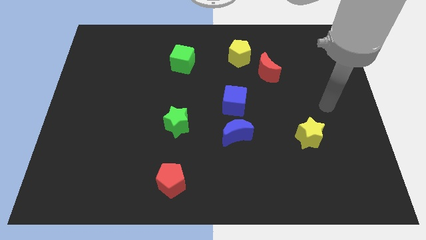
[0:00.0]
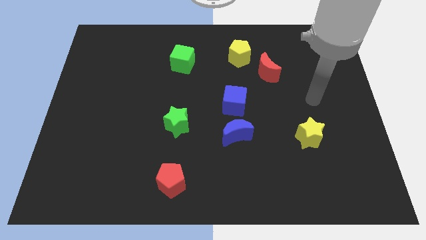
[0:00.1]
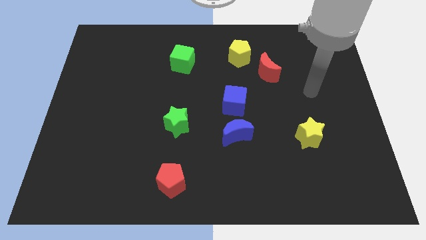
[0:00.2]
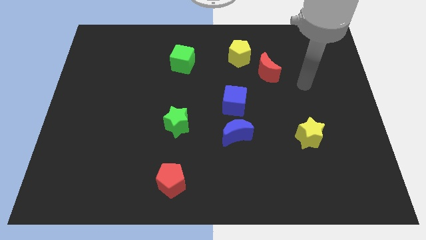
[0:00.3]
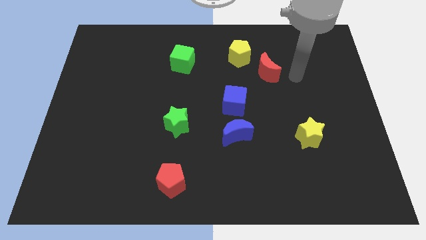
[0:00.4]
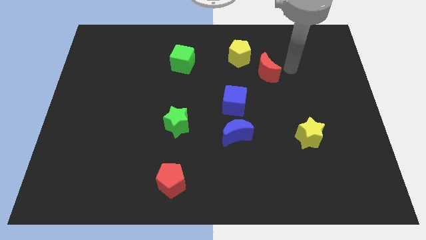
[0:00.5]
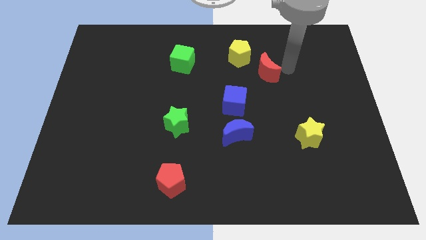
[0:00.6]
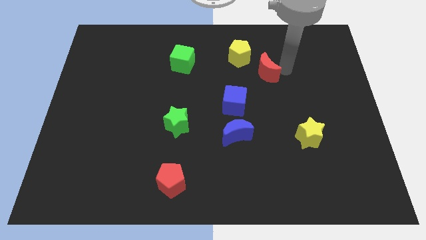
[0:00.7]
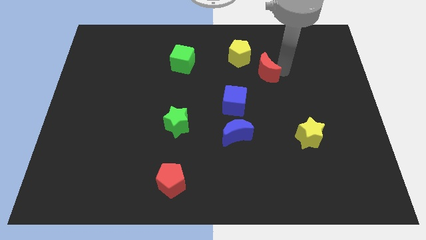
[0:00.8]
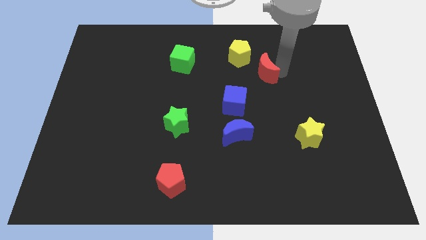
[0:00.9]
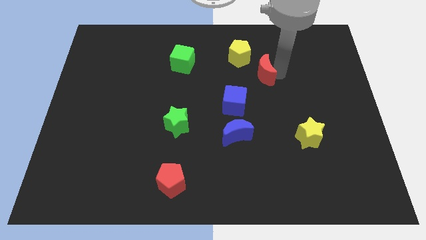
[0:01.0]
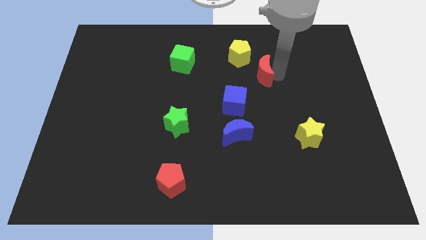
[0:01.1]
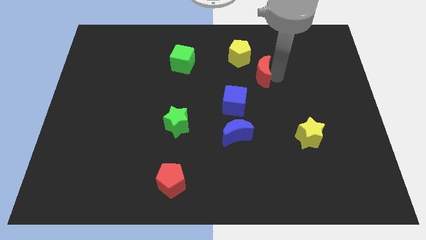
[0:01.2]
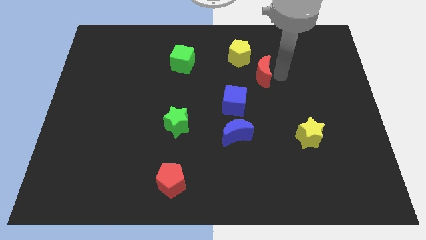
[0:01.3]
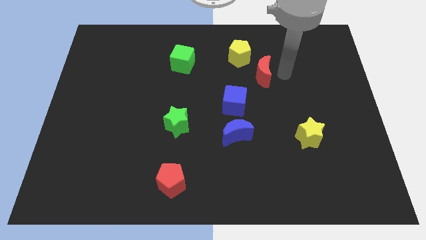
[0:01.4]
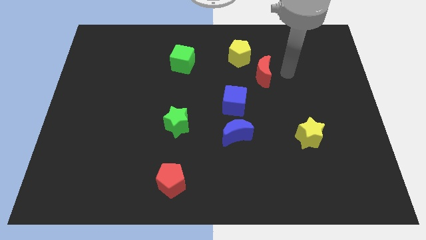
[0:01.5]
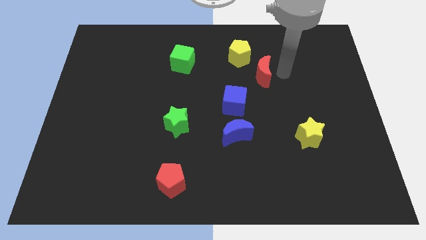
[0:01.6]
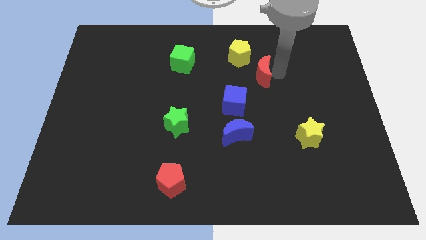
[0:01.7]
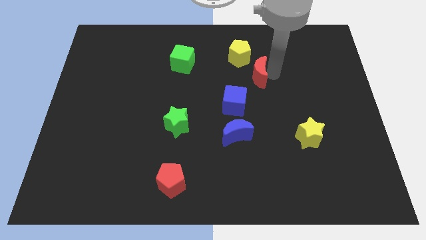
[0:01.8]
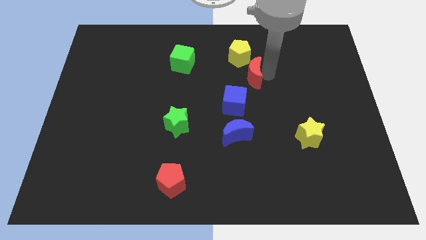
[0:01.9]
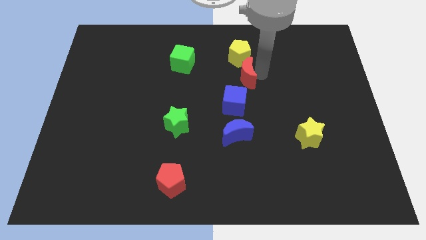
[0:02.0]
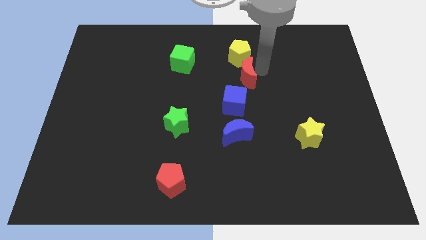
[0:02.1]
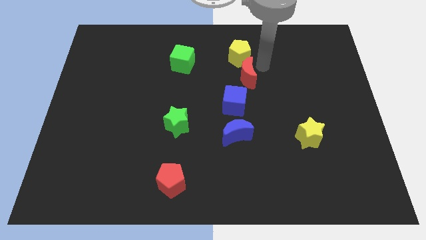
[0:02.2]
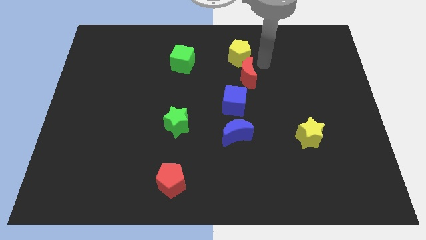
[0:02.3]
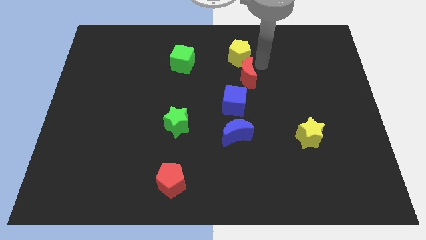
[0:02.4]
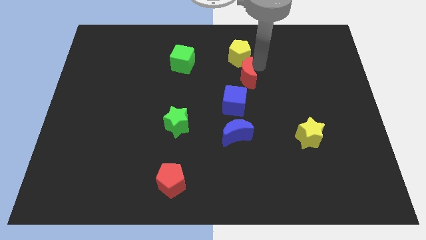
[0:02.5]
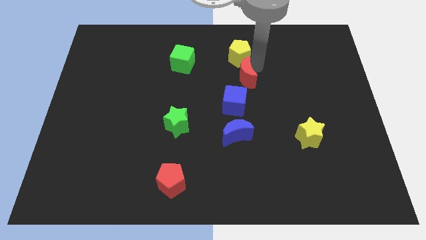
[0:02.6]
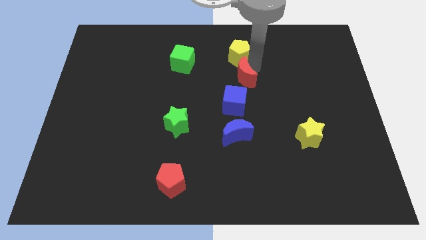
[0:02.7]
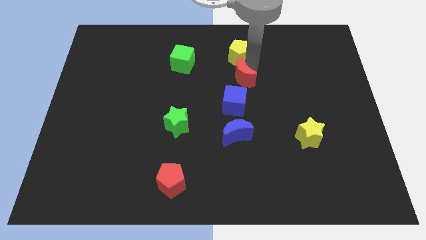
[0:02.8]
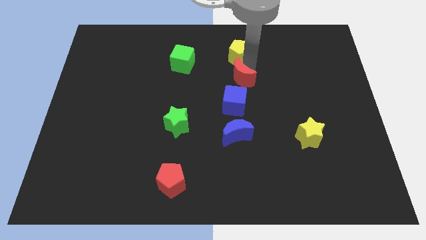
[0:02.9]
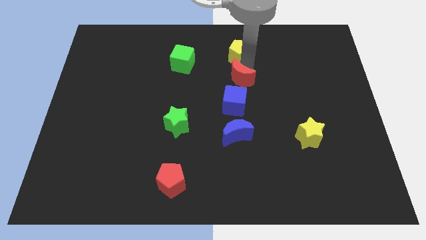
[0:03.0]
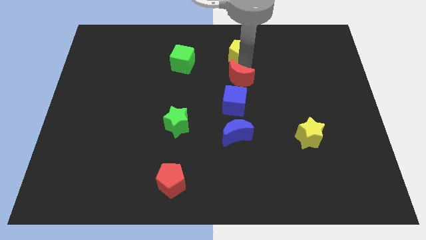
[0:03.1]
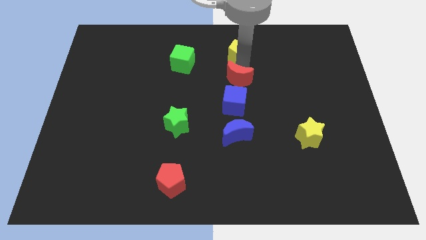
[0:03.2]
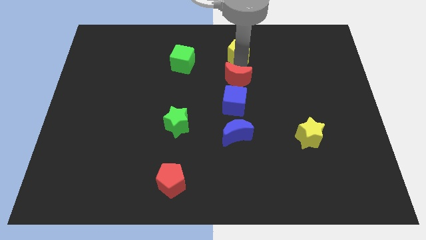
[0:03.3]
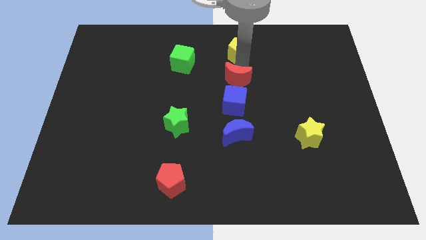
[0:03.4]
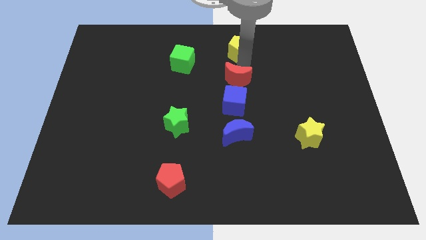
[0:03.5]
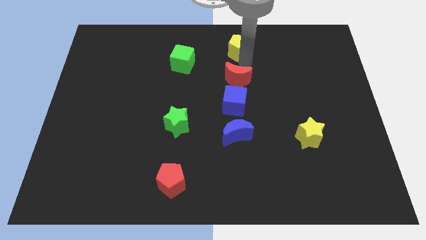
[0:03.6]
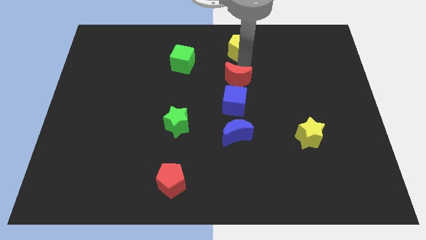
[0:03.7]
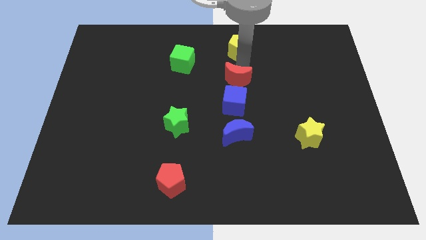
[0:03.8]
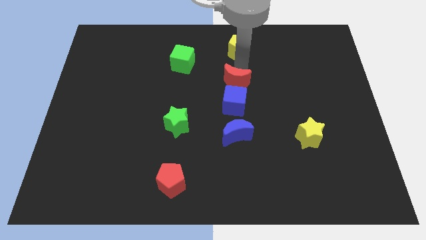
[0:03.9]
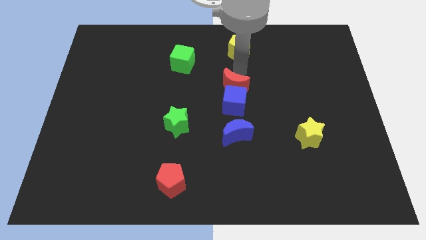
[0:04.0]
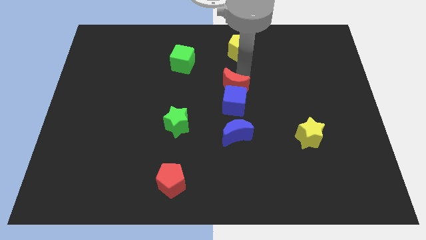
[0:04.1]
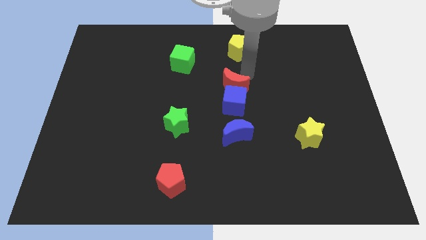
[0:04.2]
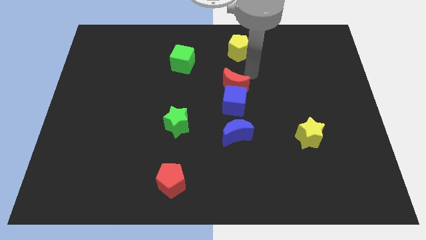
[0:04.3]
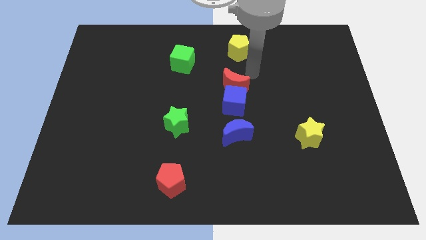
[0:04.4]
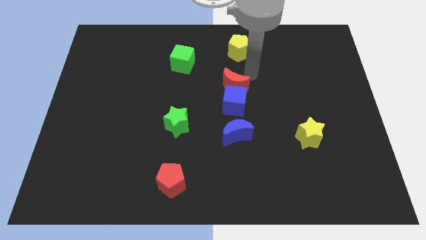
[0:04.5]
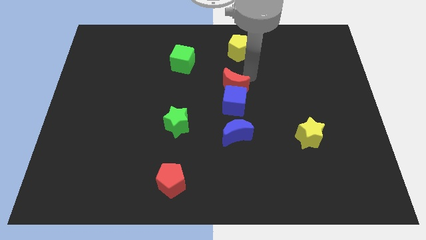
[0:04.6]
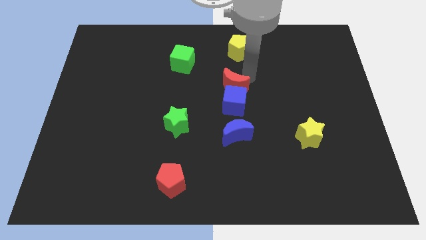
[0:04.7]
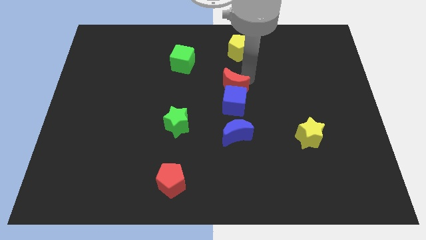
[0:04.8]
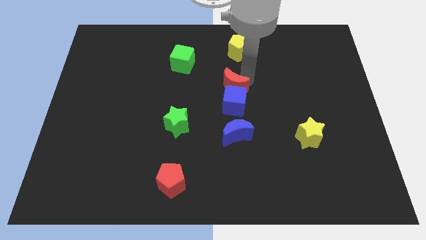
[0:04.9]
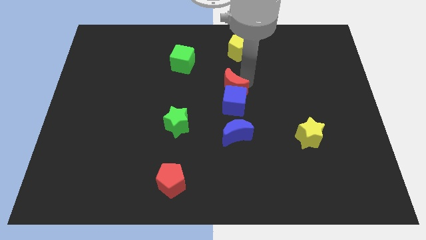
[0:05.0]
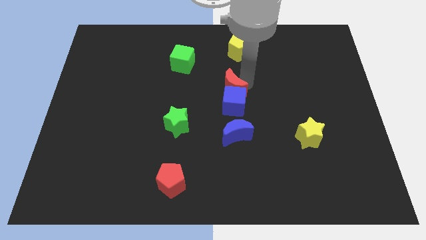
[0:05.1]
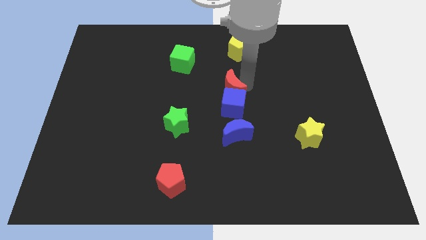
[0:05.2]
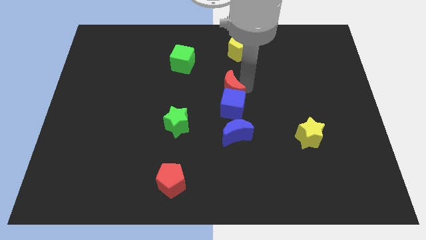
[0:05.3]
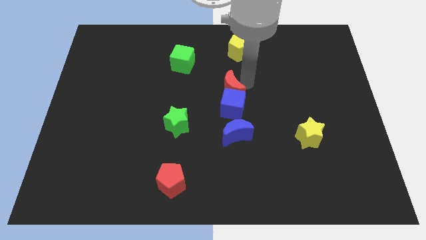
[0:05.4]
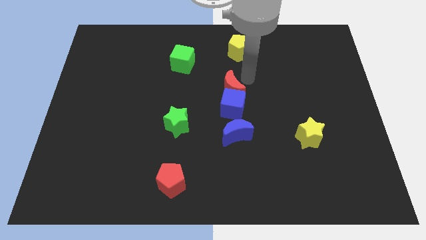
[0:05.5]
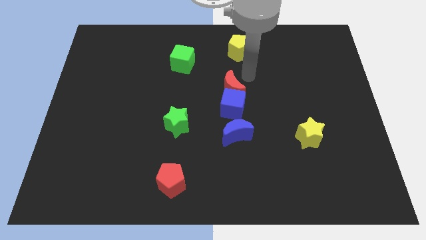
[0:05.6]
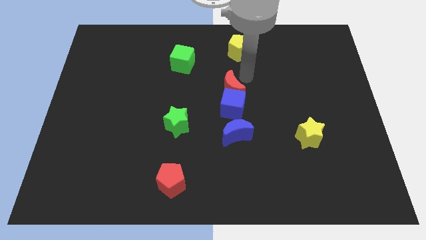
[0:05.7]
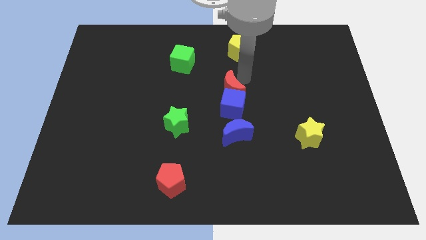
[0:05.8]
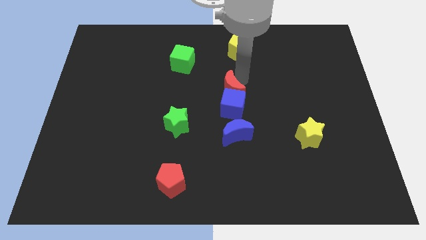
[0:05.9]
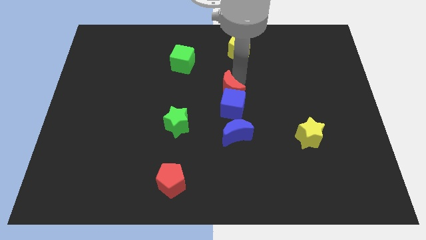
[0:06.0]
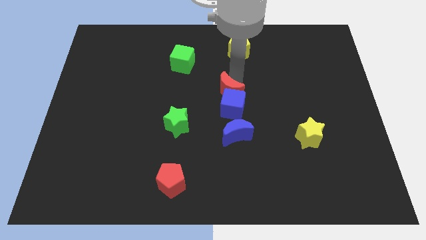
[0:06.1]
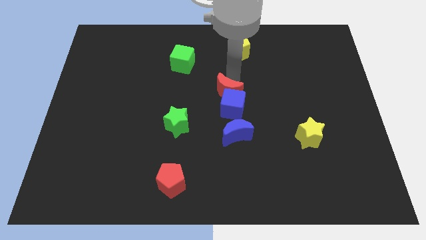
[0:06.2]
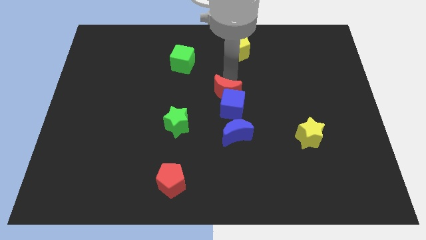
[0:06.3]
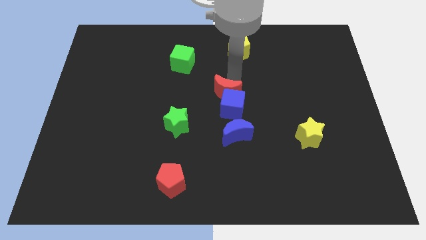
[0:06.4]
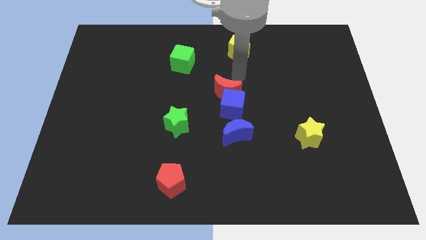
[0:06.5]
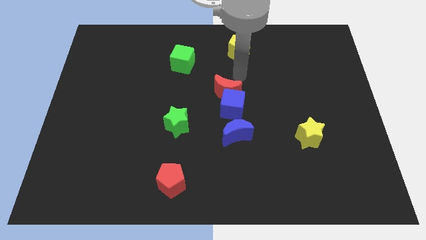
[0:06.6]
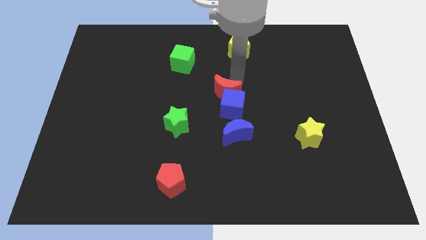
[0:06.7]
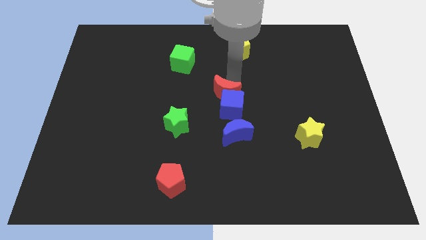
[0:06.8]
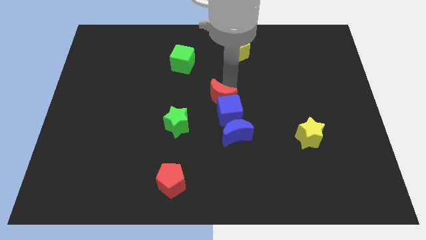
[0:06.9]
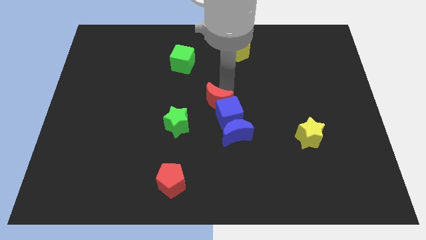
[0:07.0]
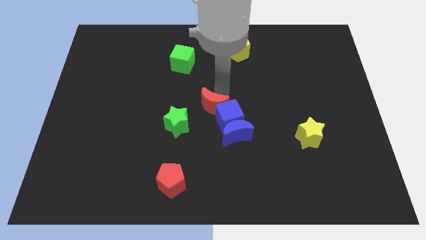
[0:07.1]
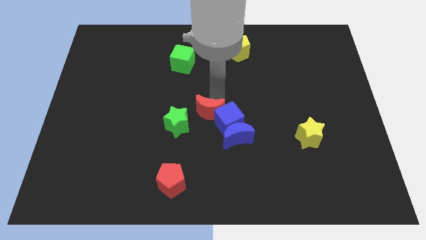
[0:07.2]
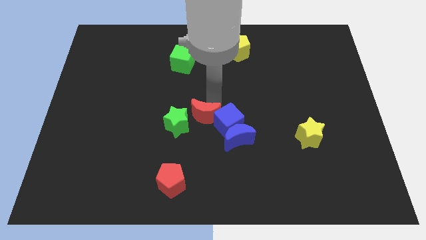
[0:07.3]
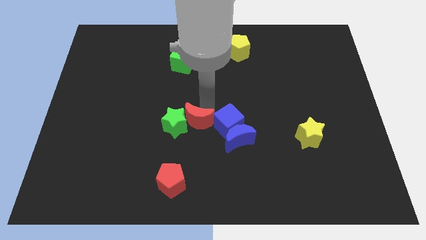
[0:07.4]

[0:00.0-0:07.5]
move the red moon diagonally down and to the right of the green star
